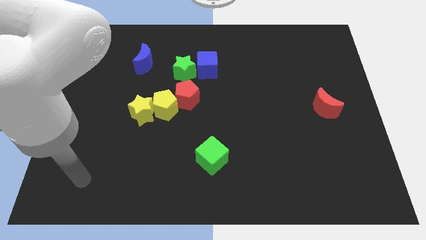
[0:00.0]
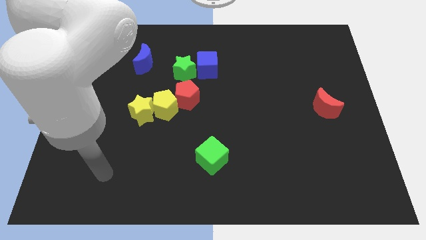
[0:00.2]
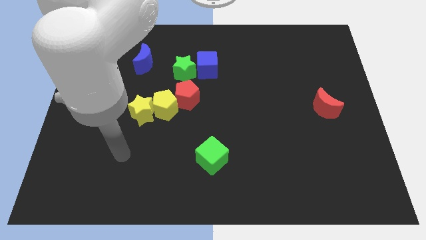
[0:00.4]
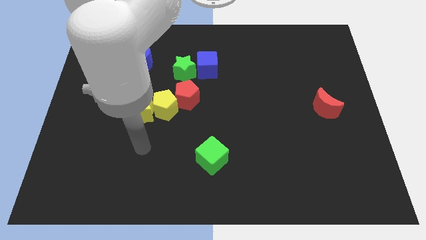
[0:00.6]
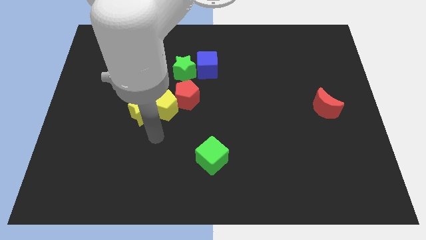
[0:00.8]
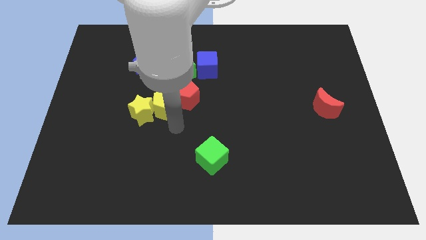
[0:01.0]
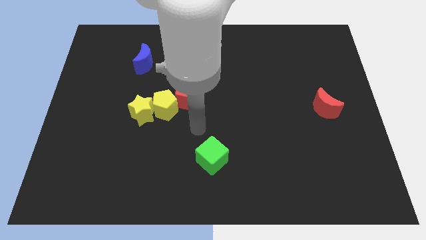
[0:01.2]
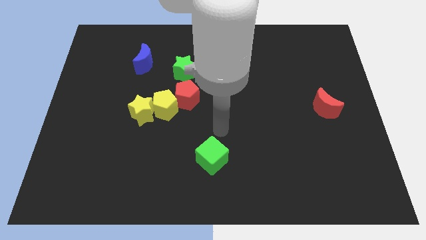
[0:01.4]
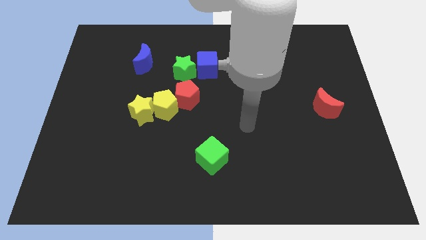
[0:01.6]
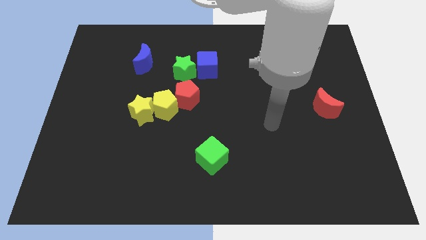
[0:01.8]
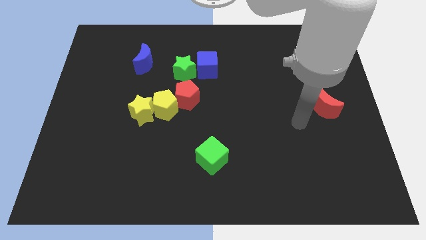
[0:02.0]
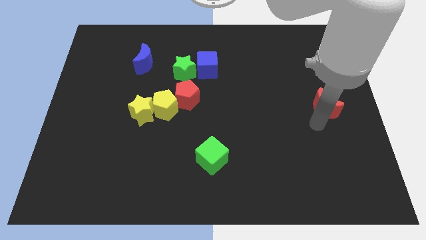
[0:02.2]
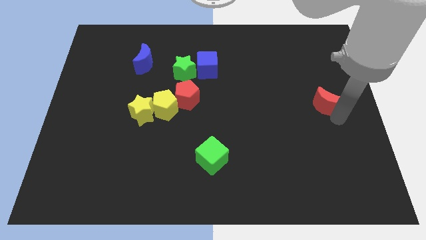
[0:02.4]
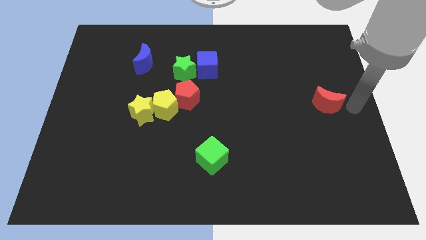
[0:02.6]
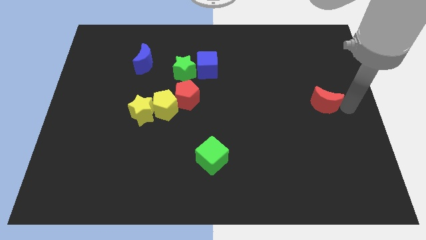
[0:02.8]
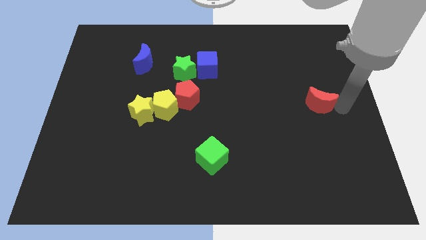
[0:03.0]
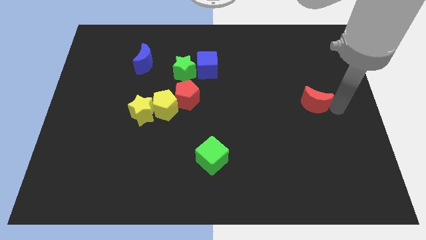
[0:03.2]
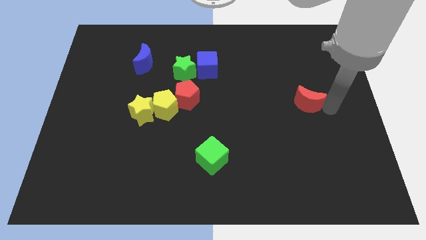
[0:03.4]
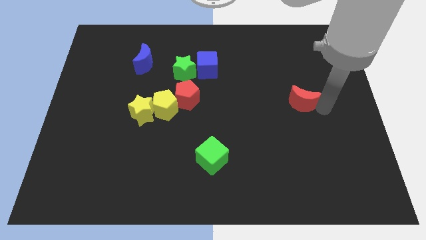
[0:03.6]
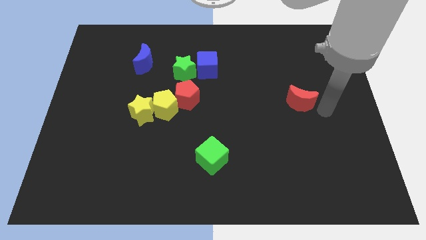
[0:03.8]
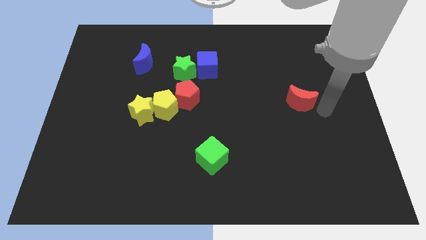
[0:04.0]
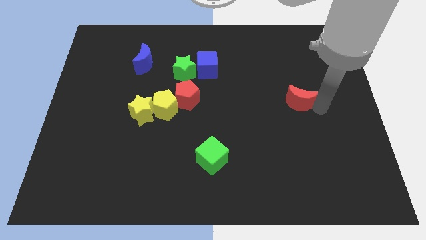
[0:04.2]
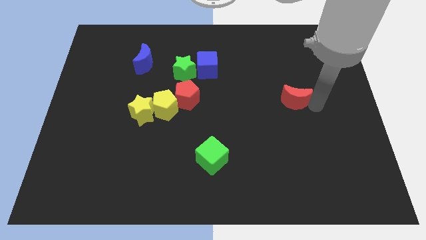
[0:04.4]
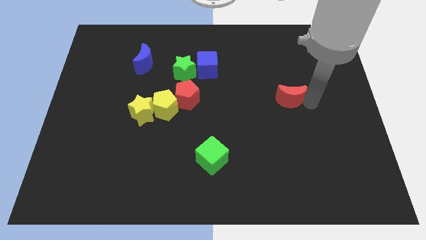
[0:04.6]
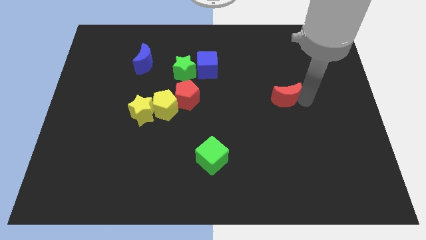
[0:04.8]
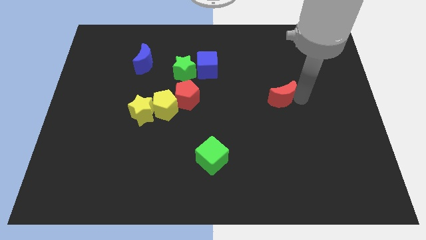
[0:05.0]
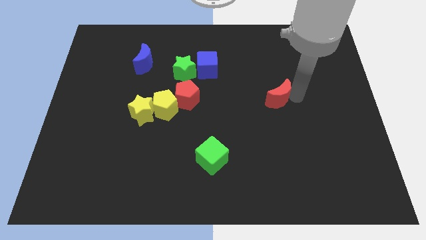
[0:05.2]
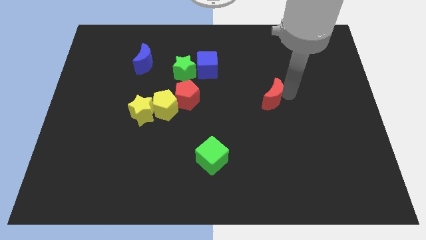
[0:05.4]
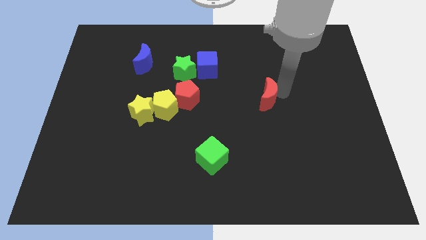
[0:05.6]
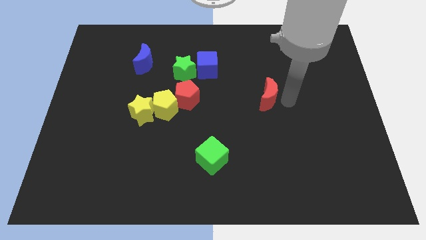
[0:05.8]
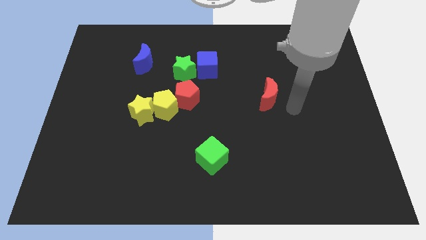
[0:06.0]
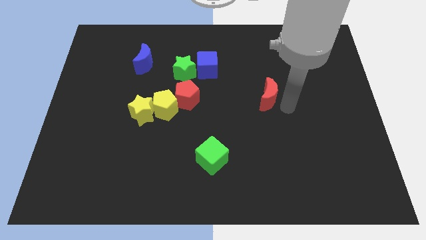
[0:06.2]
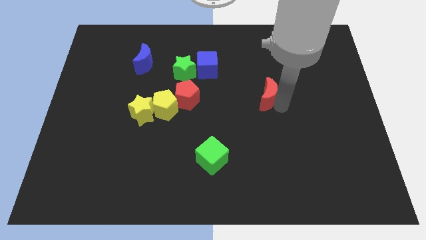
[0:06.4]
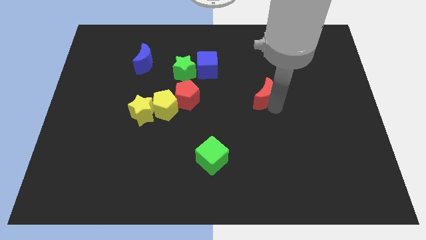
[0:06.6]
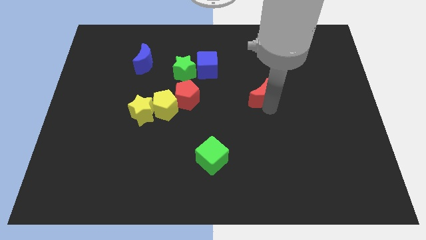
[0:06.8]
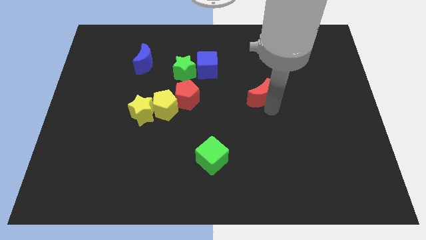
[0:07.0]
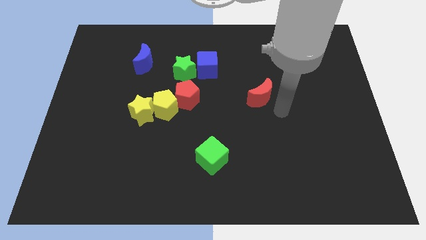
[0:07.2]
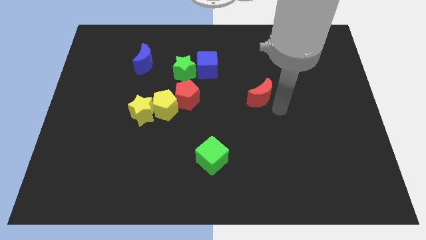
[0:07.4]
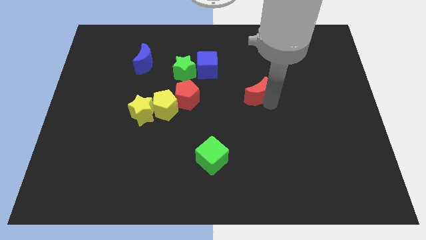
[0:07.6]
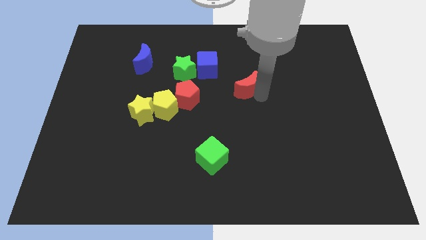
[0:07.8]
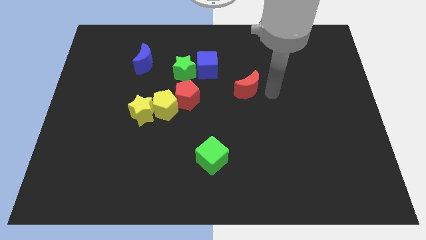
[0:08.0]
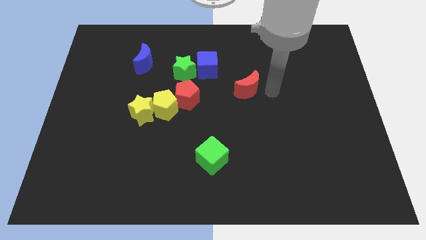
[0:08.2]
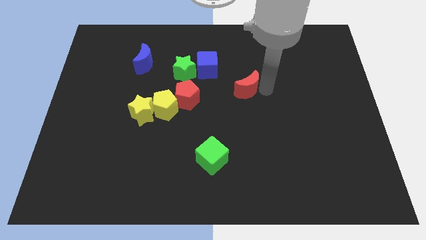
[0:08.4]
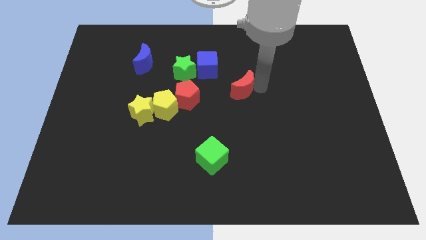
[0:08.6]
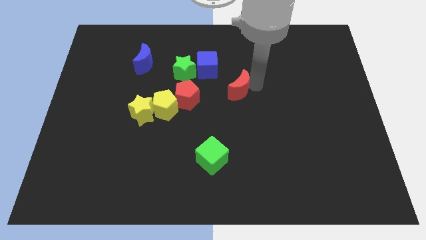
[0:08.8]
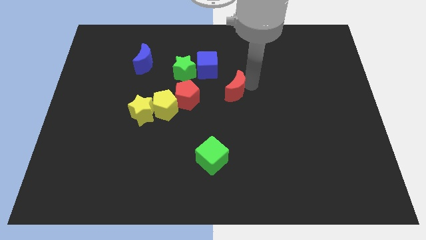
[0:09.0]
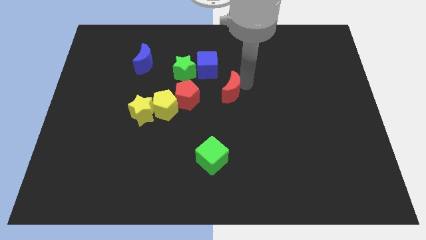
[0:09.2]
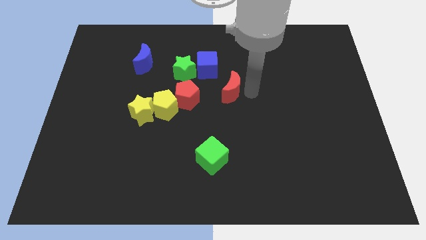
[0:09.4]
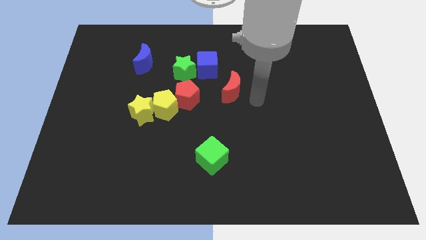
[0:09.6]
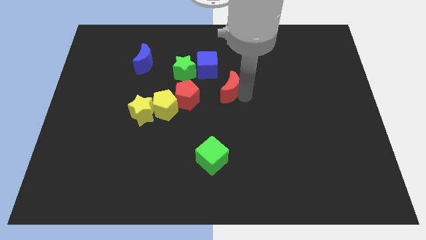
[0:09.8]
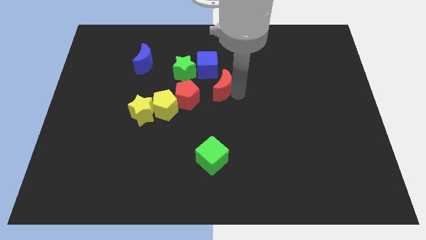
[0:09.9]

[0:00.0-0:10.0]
move the red moon to the top right side of the red pentagon

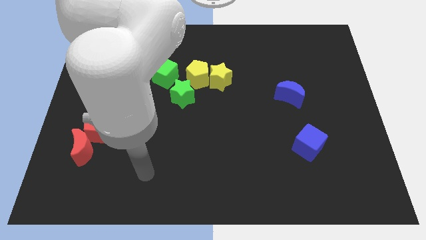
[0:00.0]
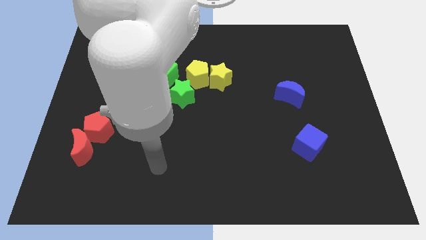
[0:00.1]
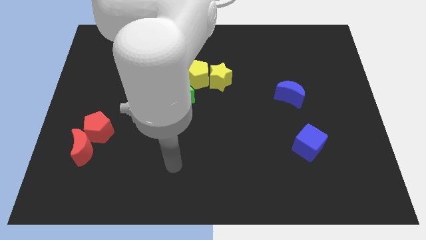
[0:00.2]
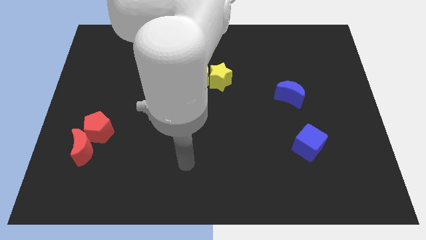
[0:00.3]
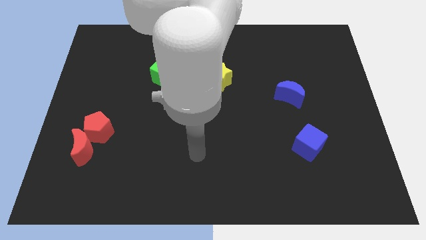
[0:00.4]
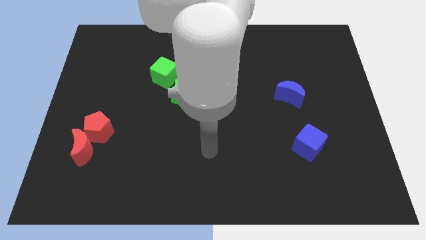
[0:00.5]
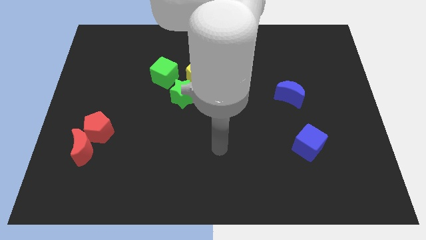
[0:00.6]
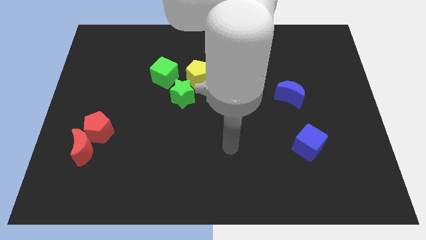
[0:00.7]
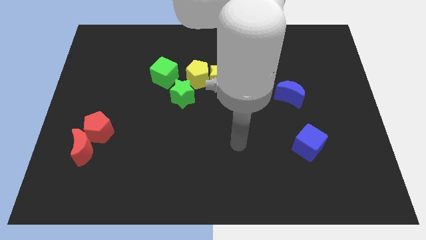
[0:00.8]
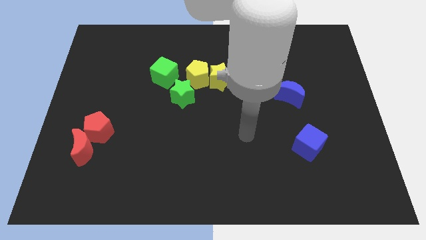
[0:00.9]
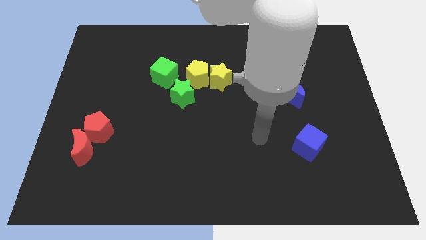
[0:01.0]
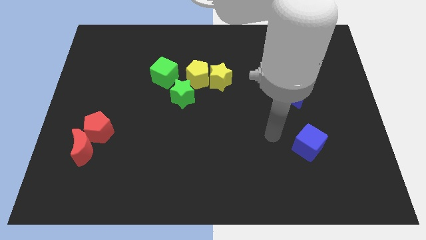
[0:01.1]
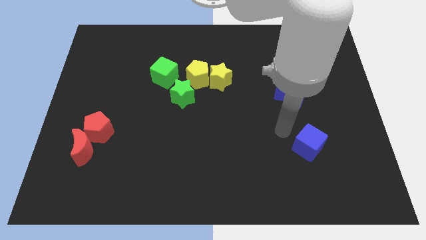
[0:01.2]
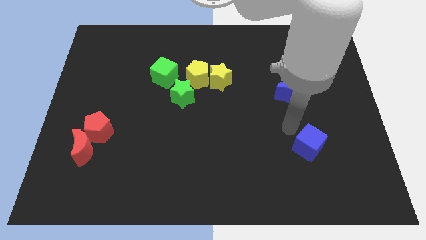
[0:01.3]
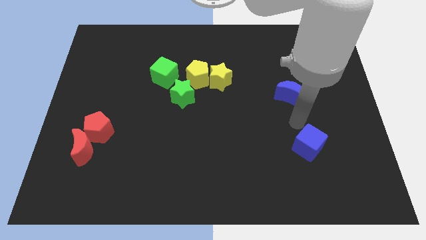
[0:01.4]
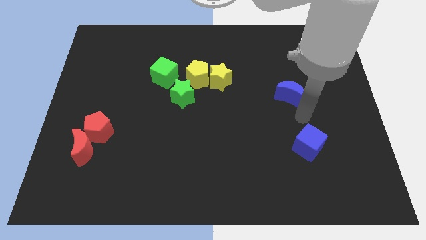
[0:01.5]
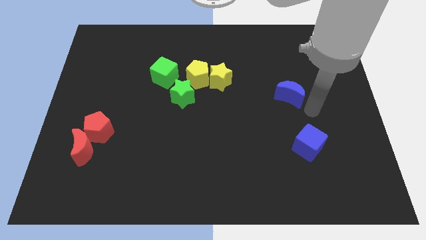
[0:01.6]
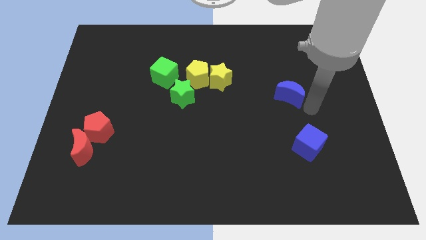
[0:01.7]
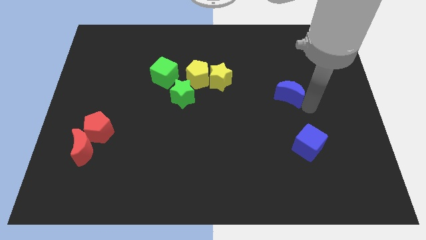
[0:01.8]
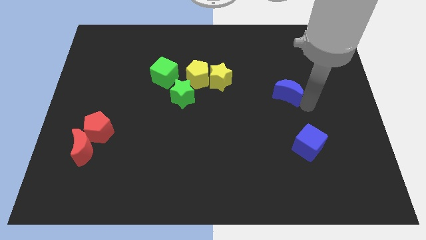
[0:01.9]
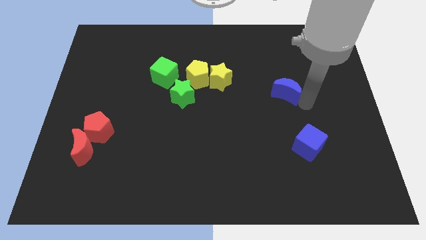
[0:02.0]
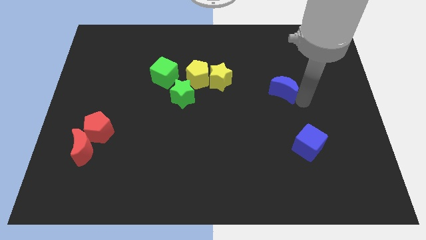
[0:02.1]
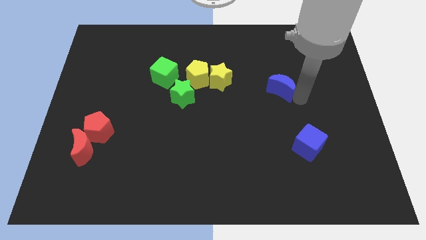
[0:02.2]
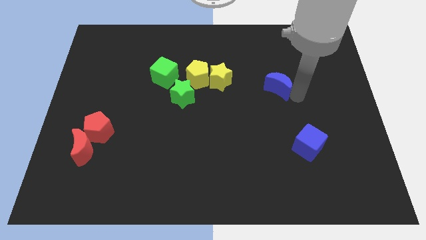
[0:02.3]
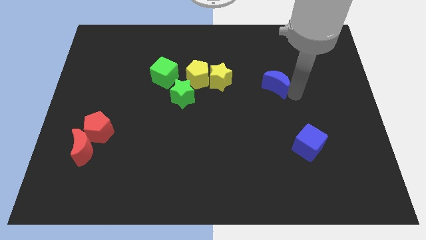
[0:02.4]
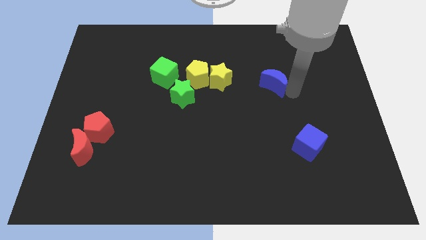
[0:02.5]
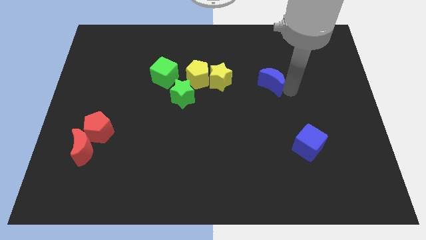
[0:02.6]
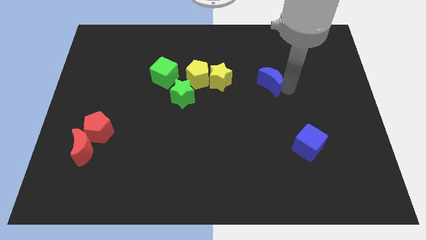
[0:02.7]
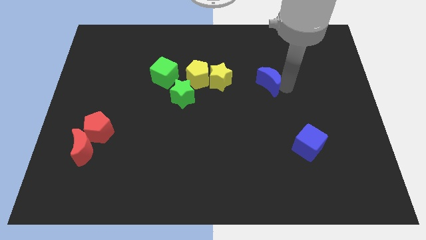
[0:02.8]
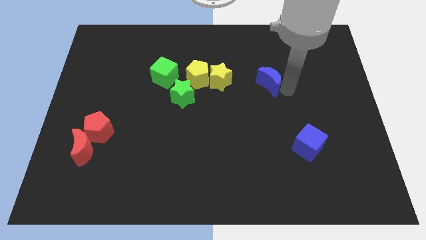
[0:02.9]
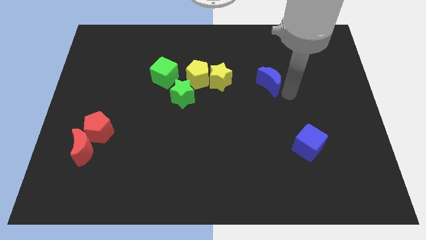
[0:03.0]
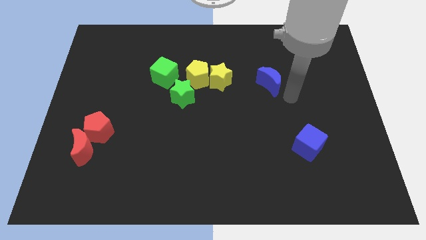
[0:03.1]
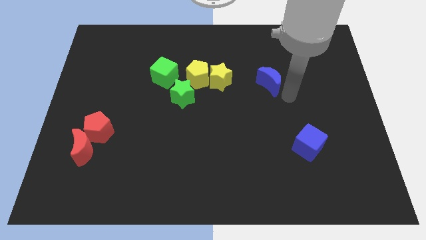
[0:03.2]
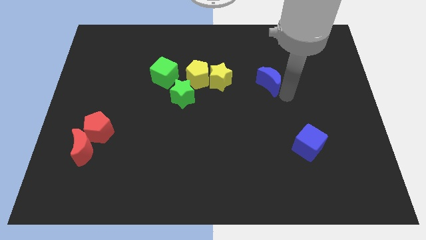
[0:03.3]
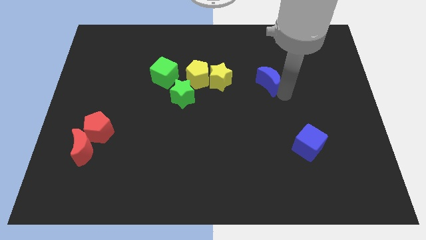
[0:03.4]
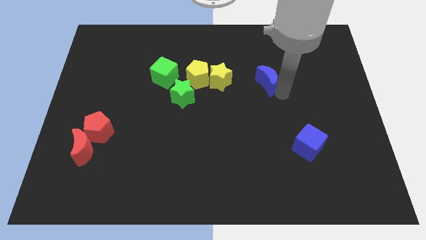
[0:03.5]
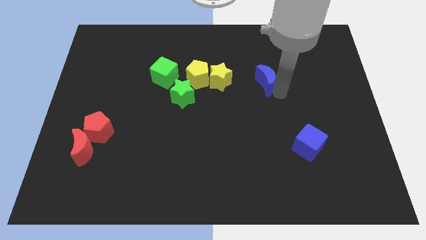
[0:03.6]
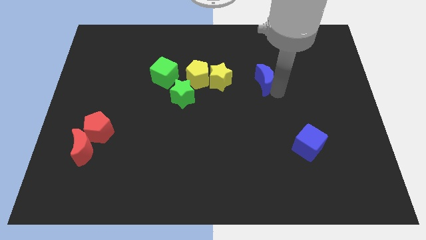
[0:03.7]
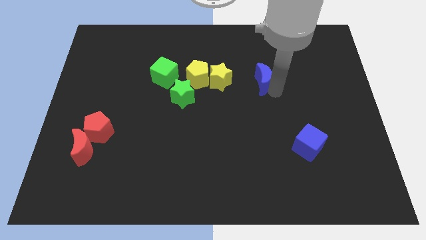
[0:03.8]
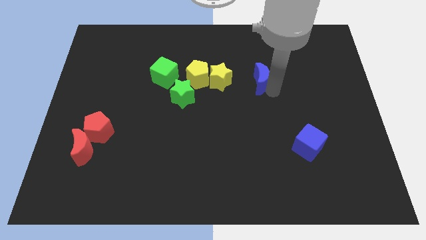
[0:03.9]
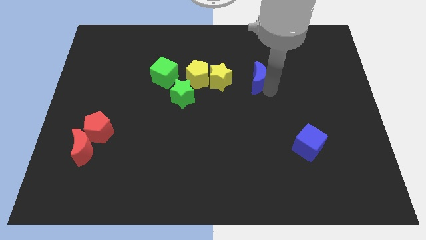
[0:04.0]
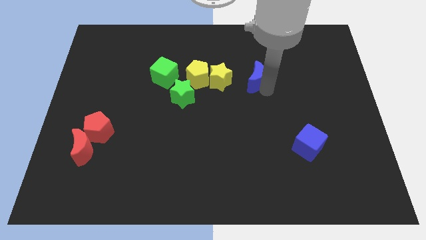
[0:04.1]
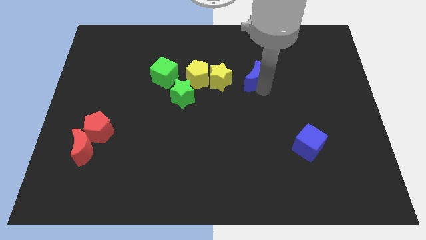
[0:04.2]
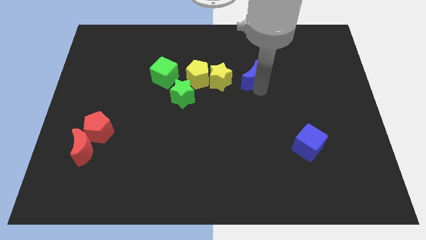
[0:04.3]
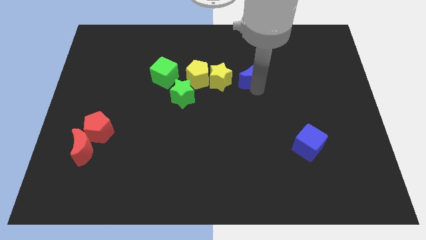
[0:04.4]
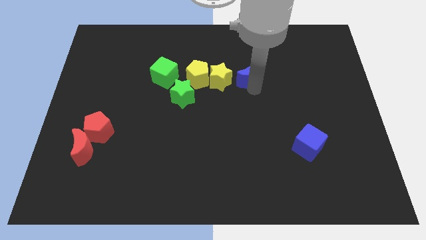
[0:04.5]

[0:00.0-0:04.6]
slide the blue moon to the top right side of the yellow star
